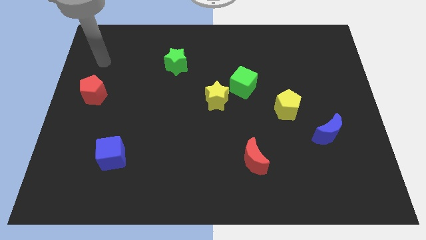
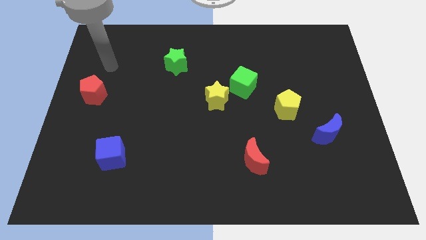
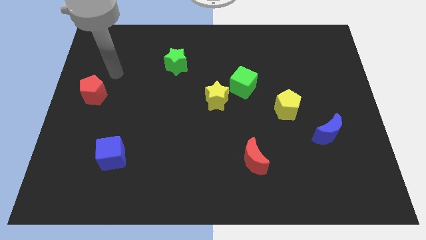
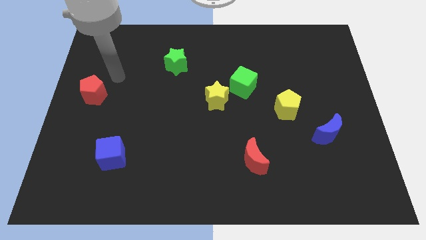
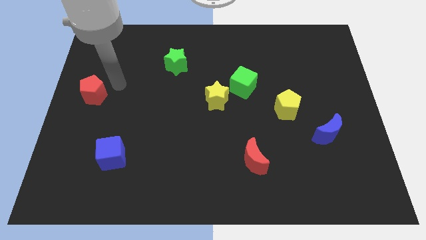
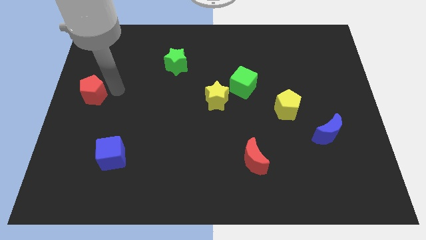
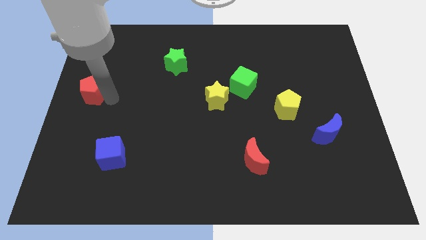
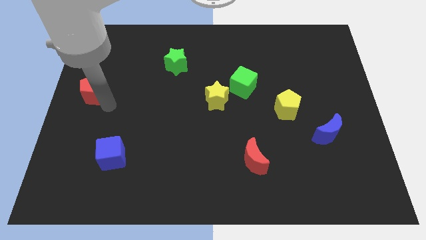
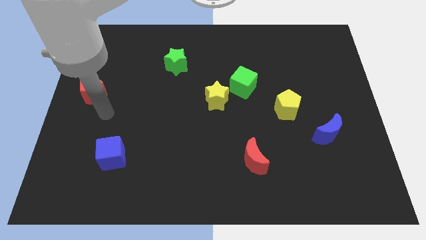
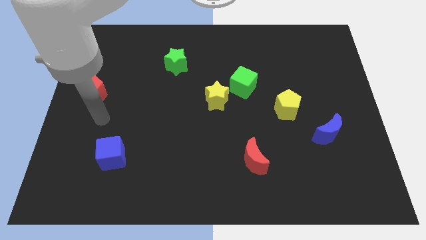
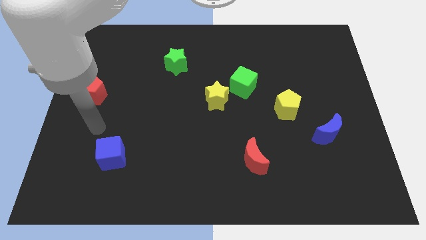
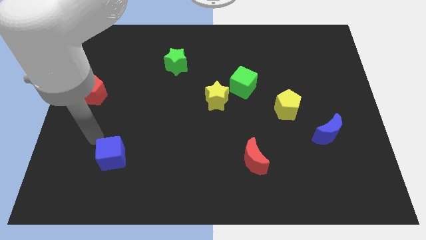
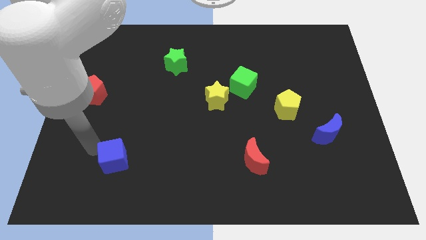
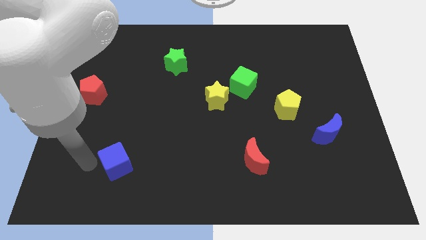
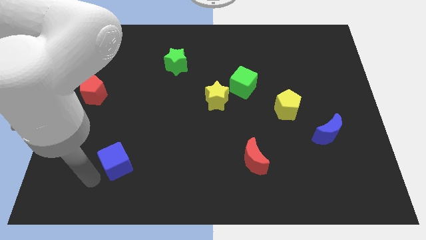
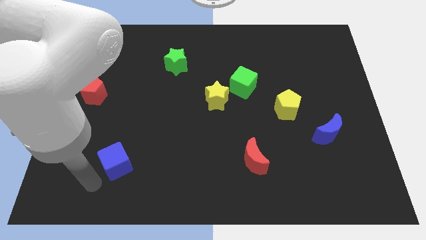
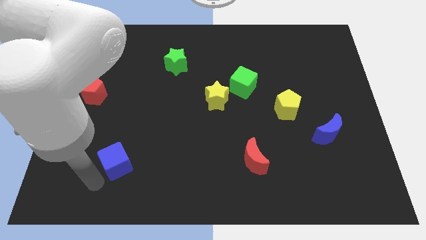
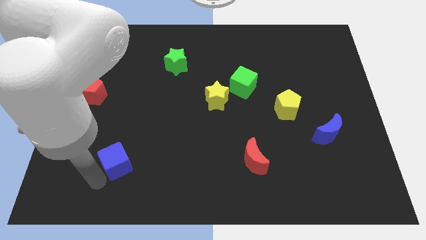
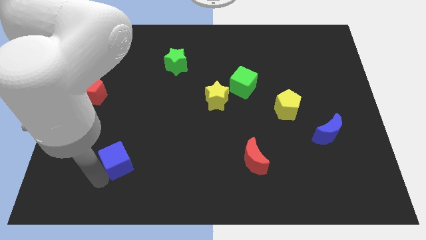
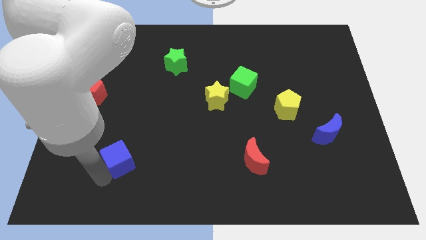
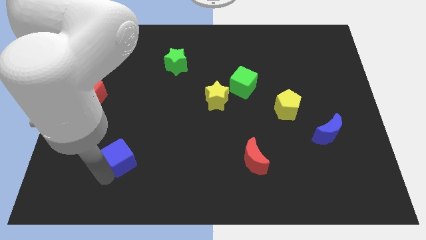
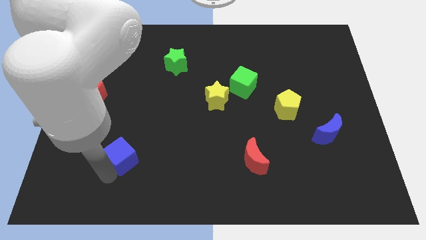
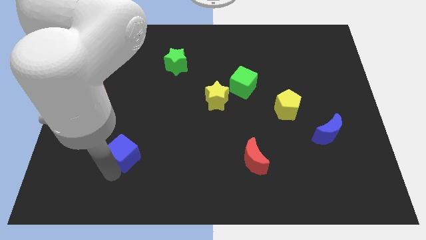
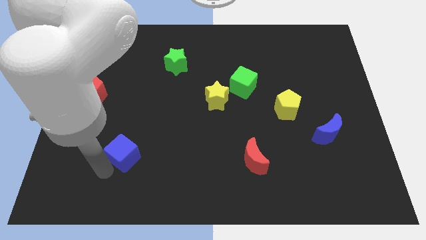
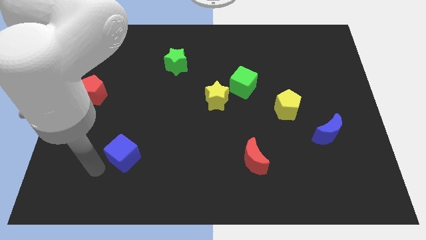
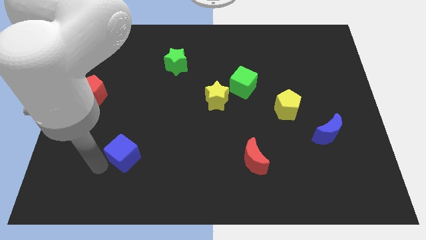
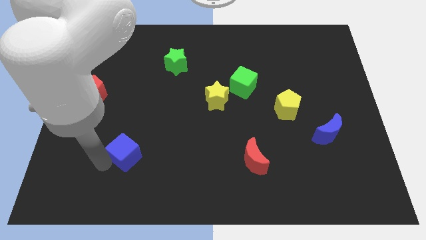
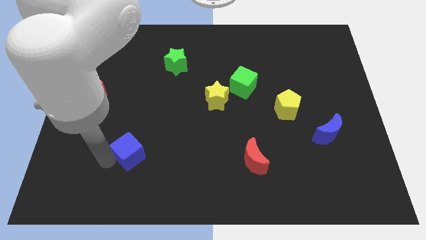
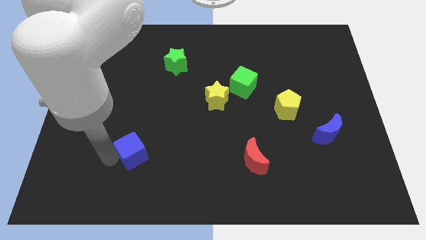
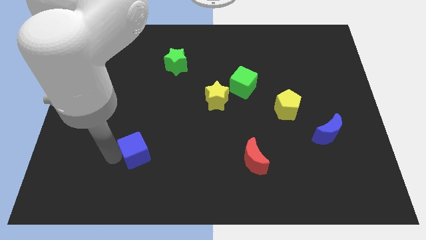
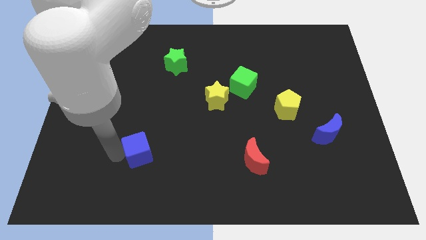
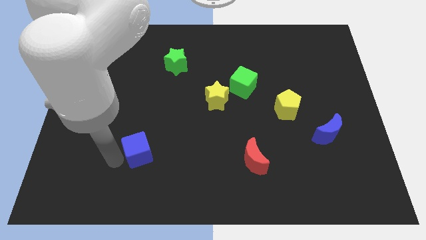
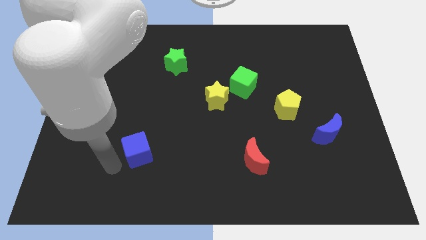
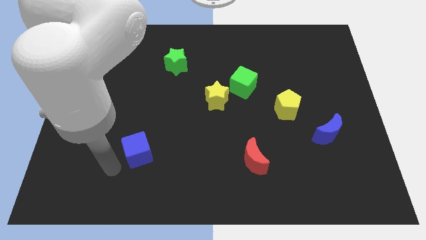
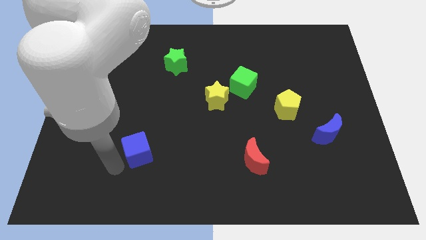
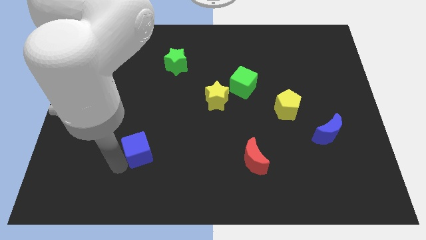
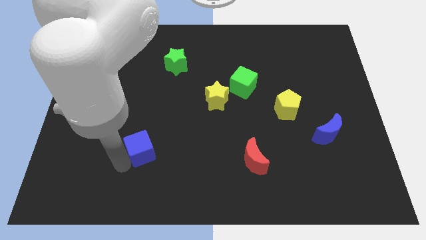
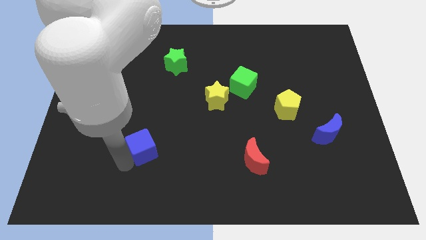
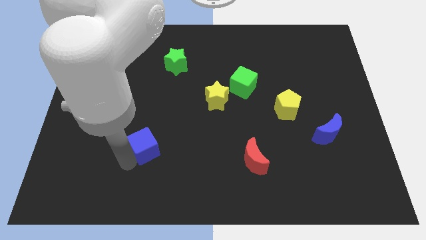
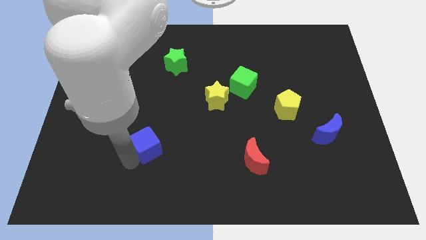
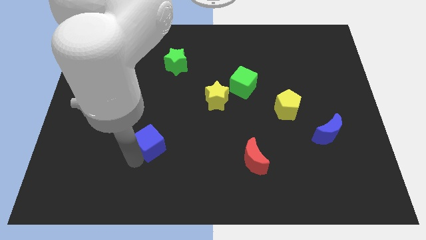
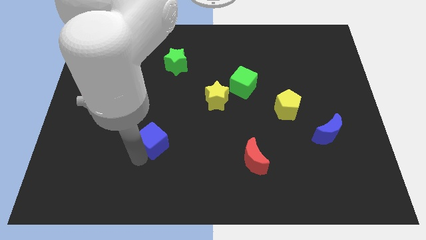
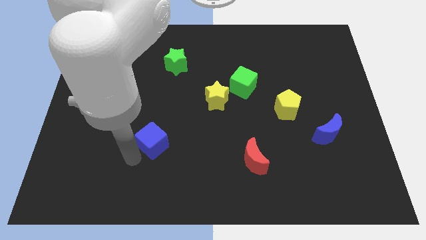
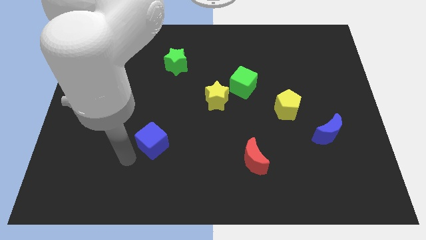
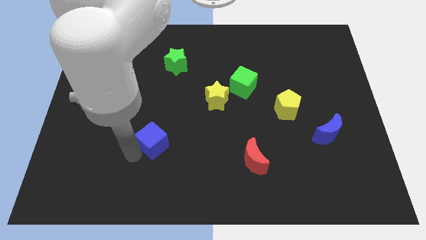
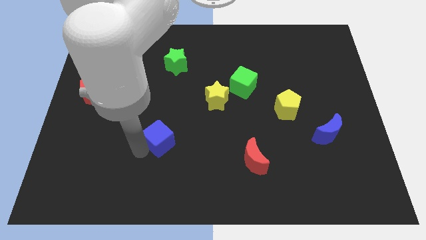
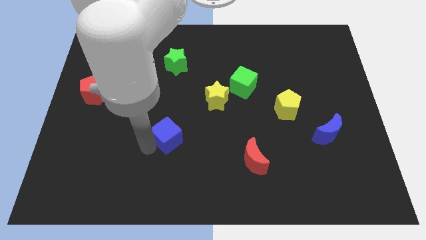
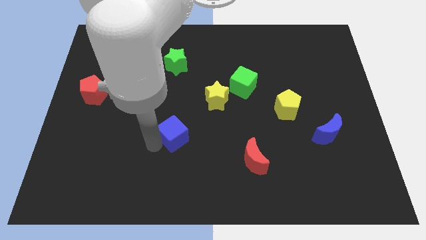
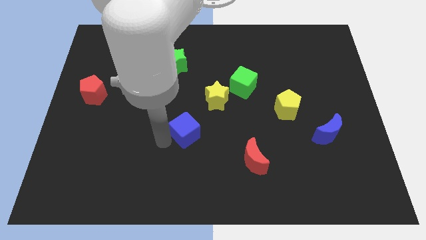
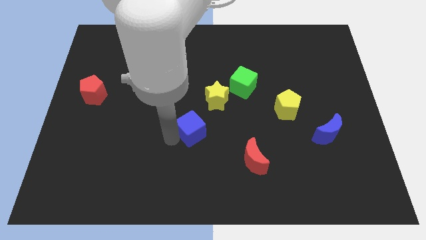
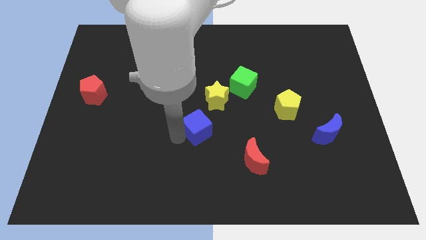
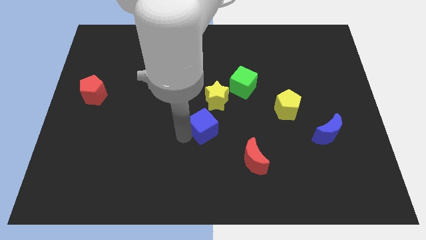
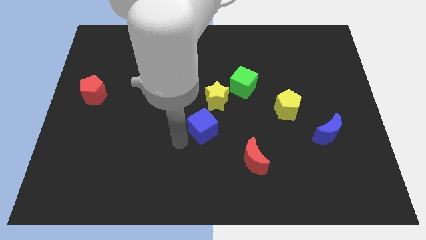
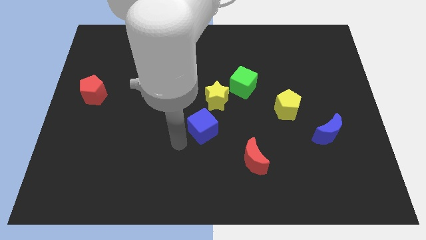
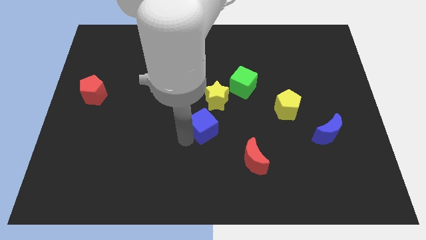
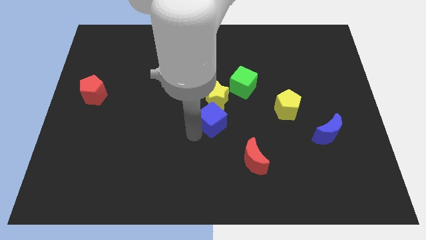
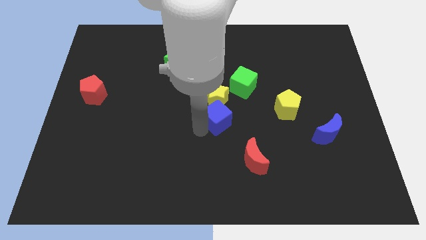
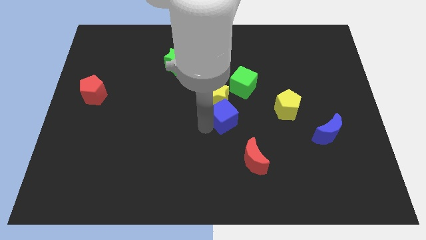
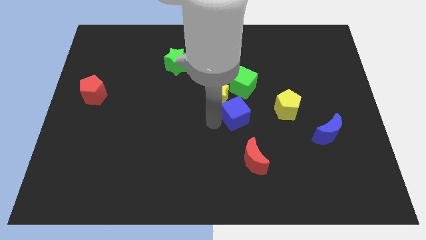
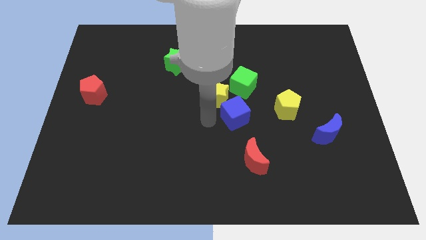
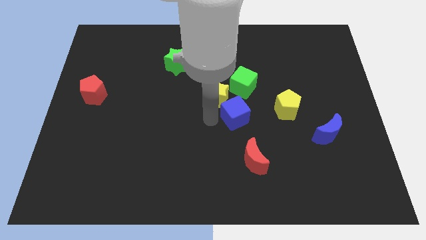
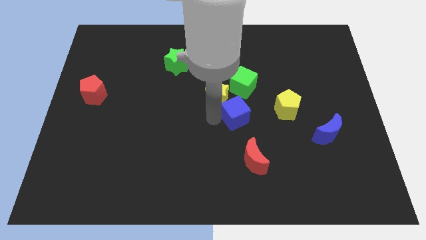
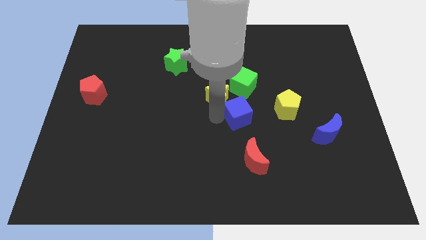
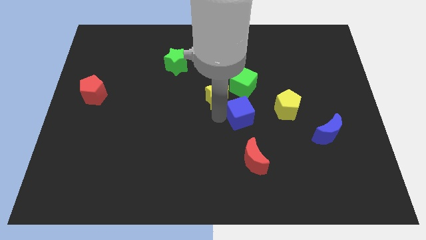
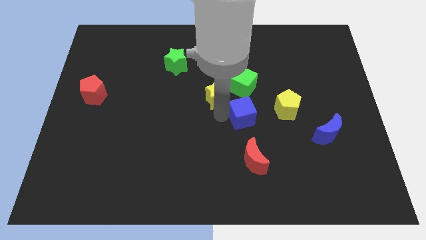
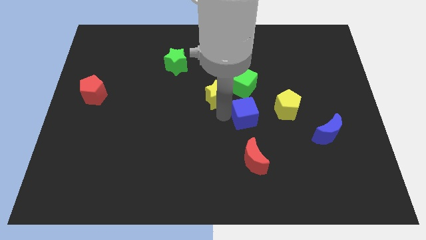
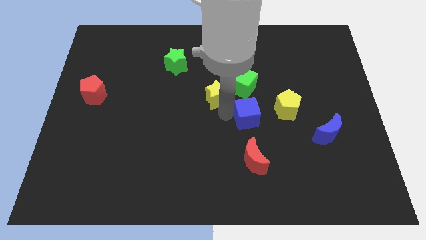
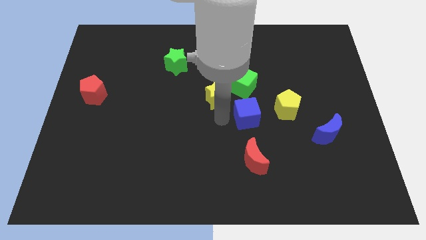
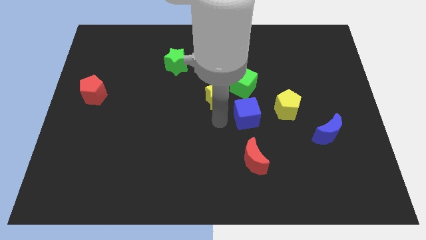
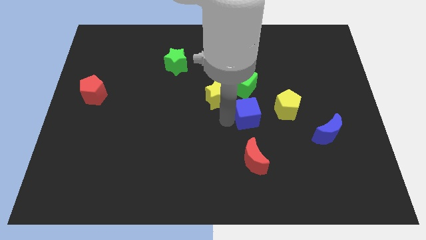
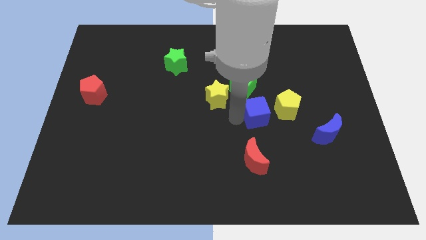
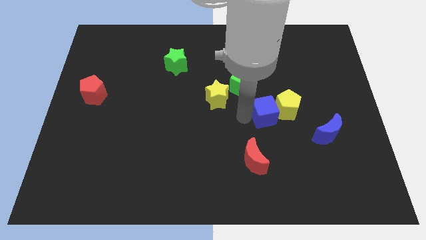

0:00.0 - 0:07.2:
push the blue cube to the yellow pentagon

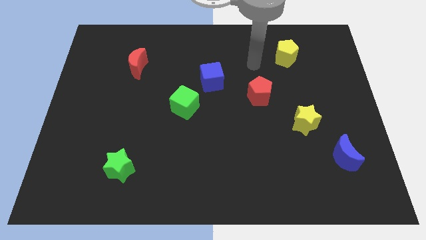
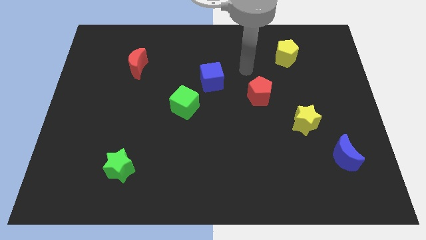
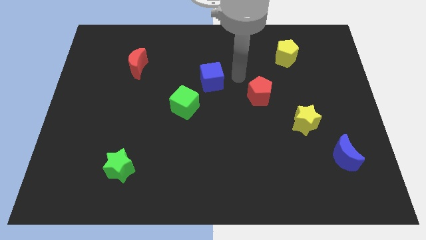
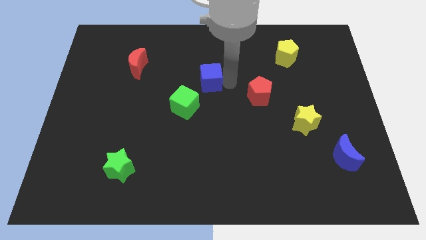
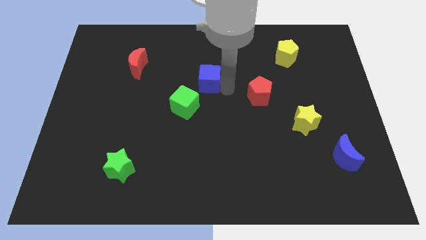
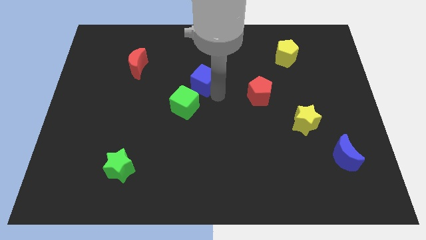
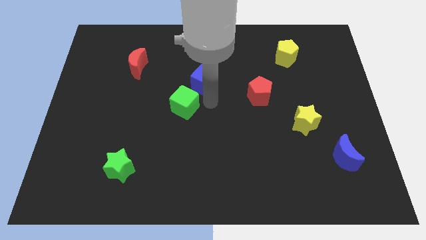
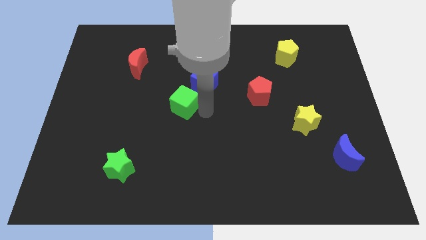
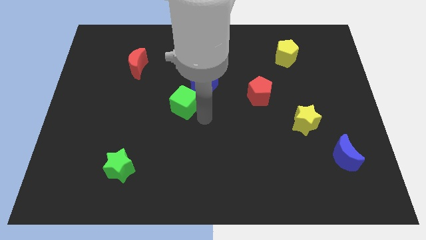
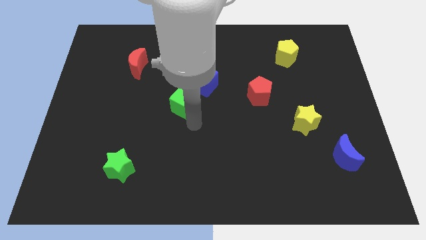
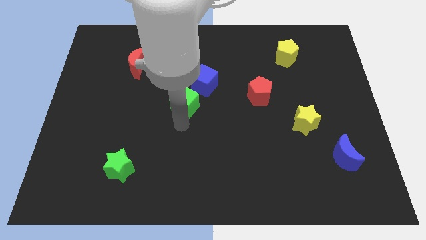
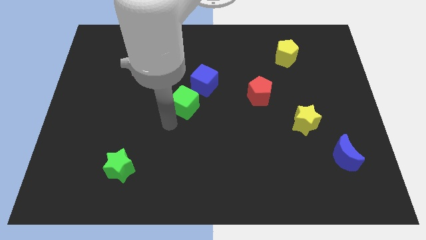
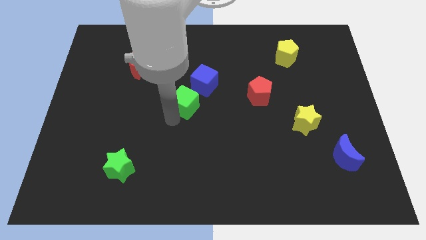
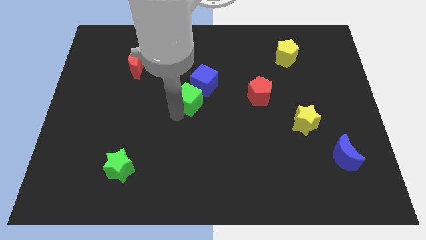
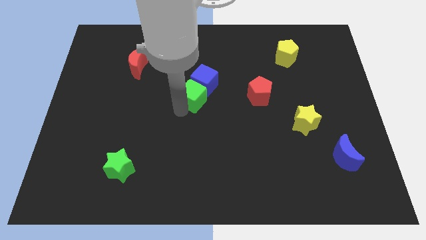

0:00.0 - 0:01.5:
put the green cube close to the blue cube
